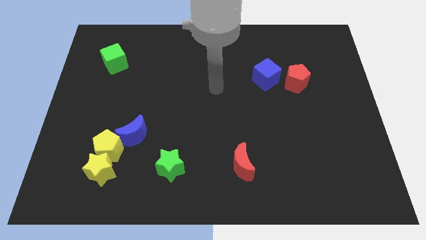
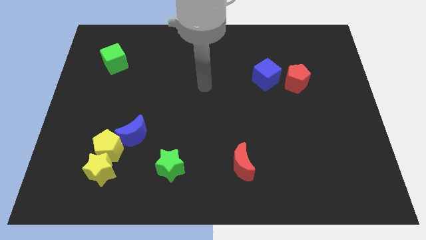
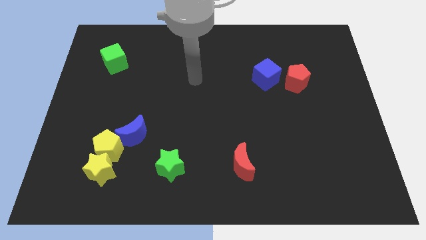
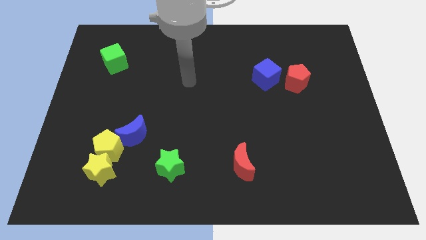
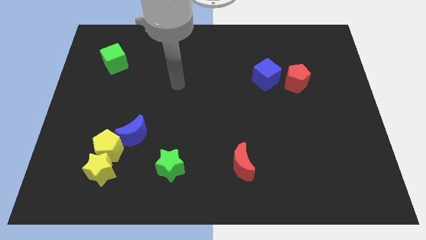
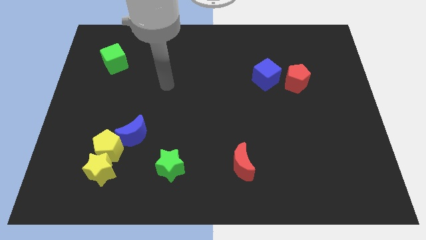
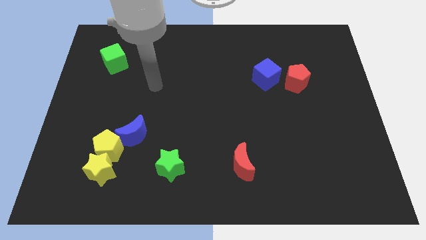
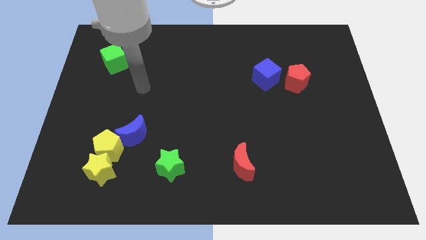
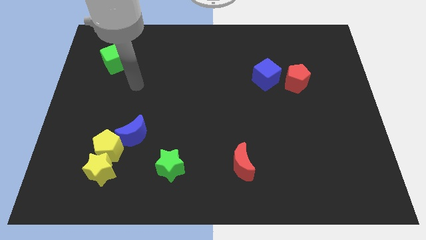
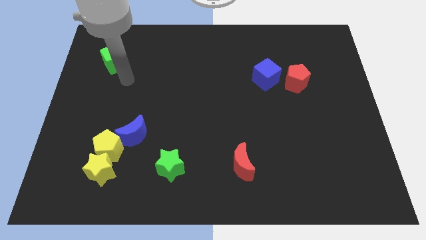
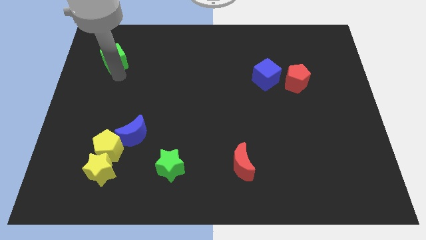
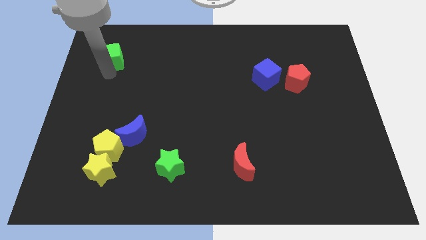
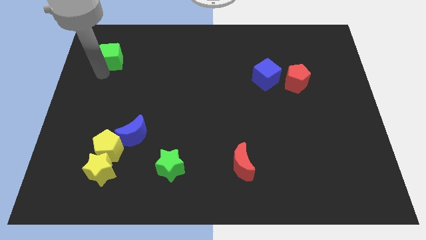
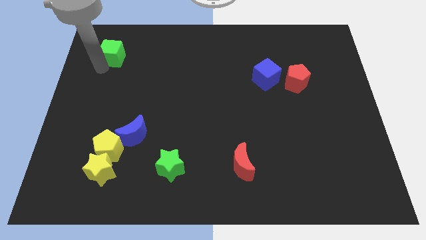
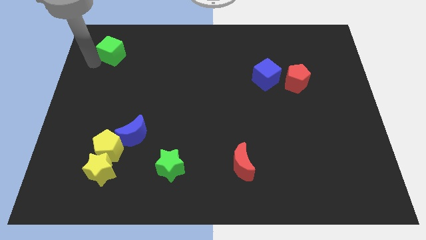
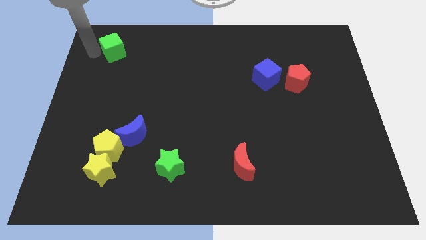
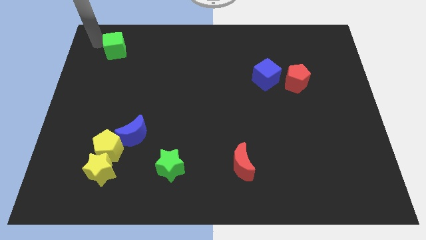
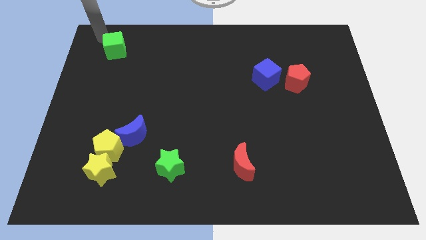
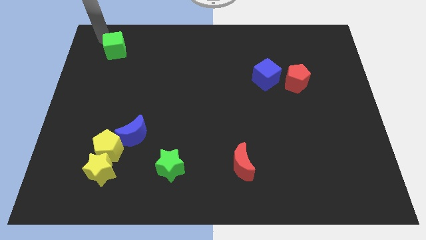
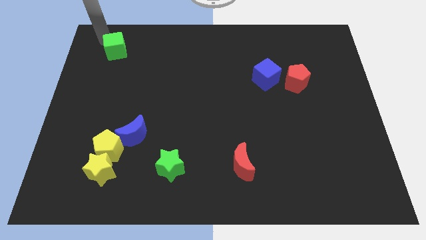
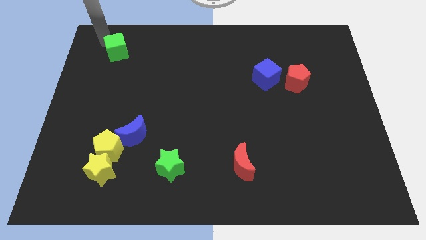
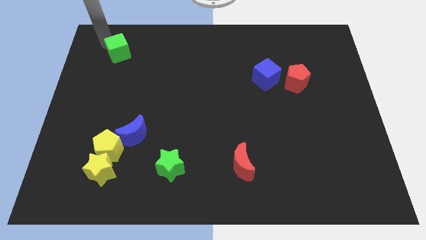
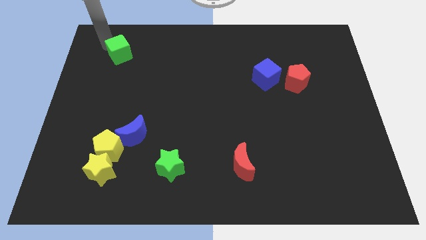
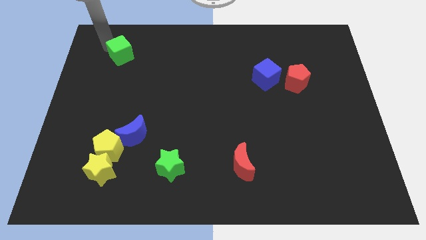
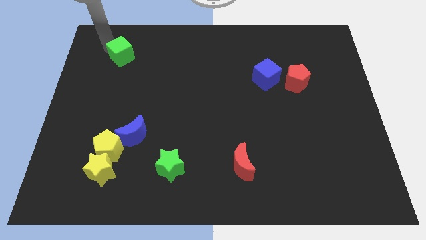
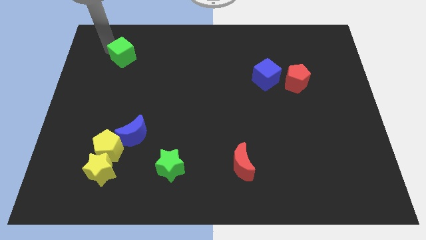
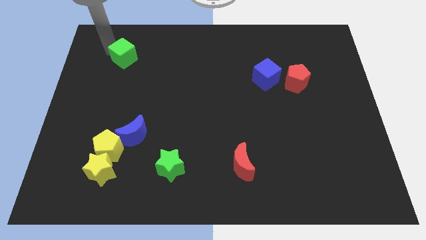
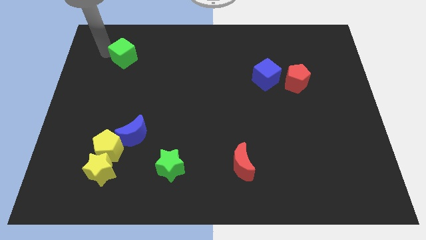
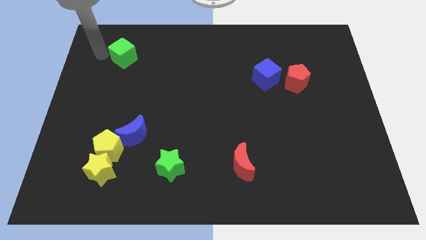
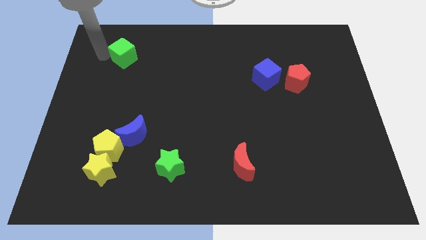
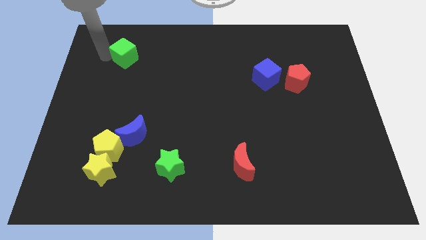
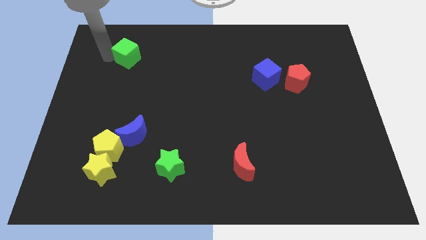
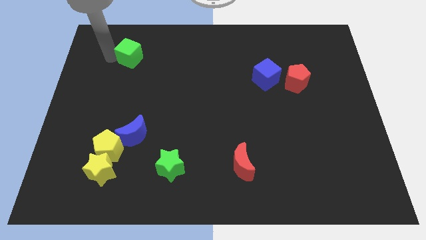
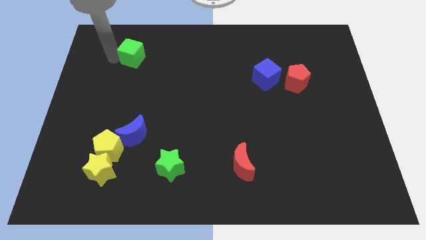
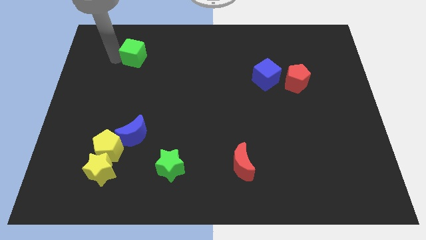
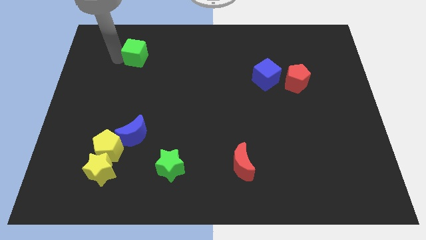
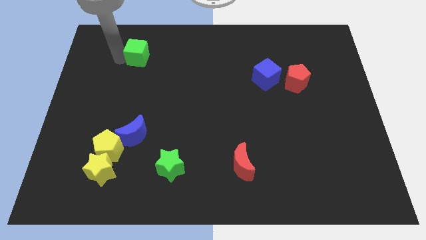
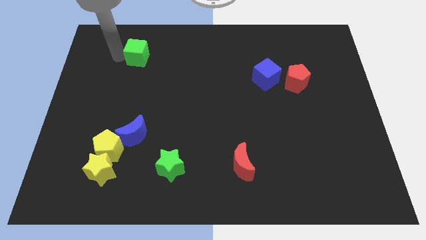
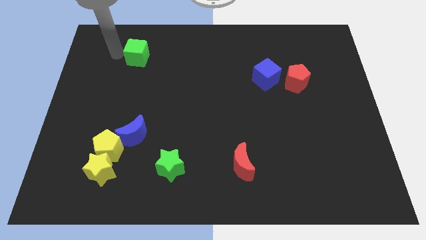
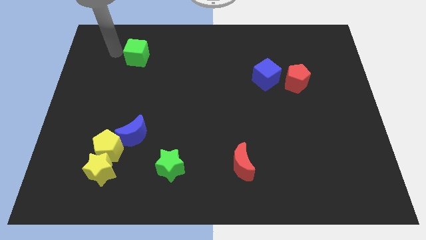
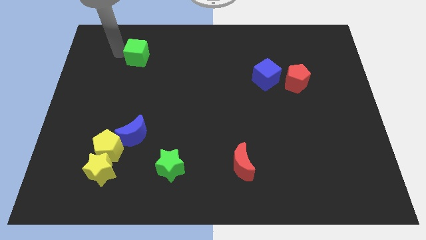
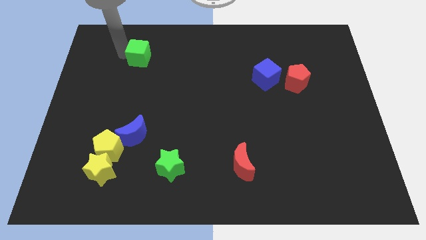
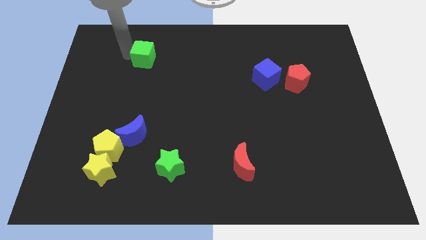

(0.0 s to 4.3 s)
push the green cube slightly right

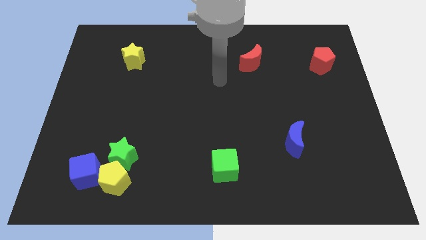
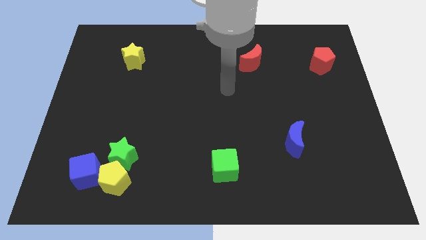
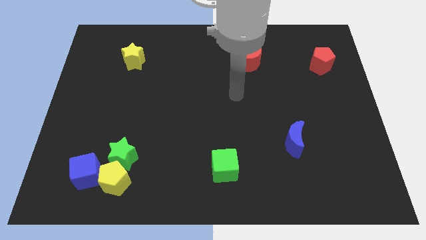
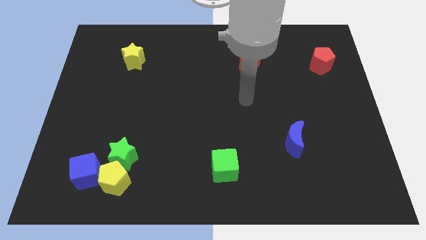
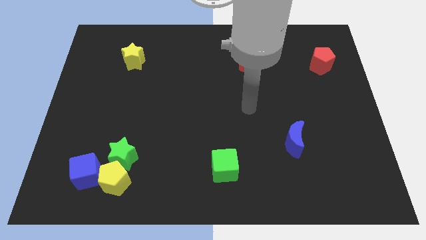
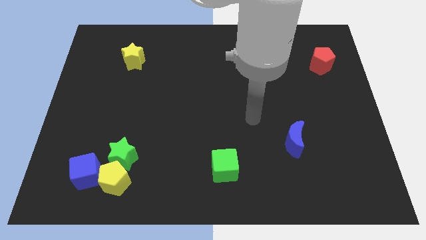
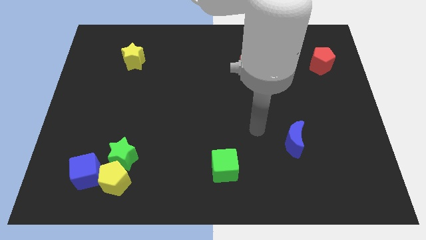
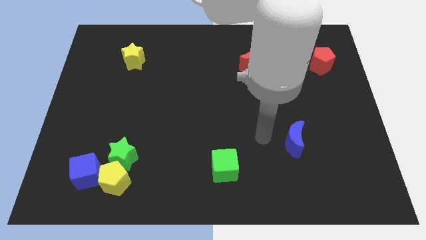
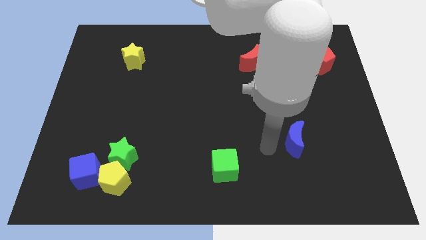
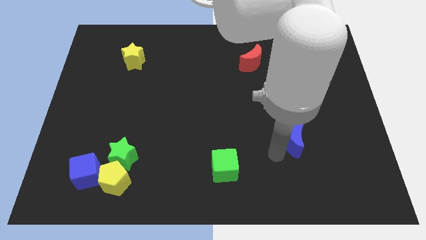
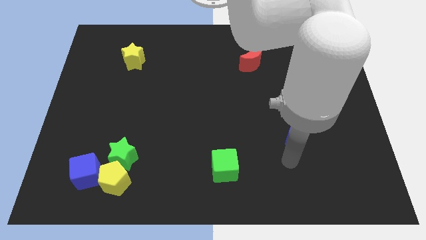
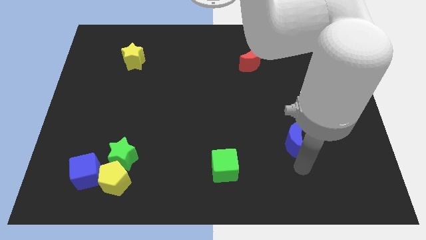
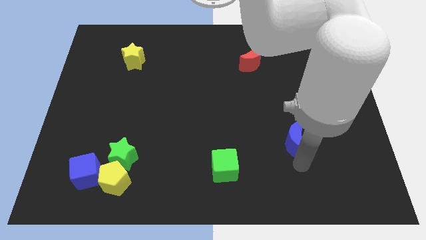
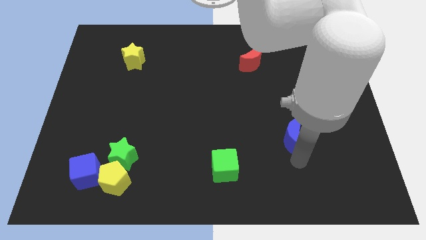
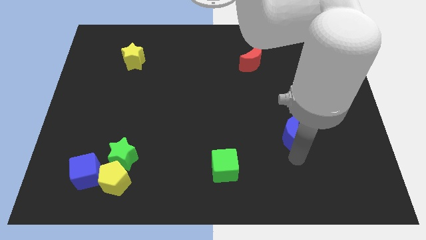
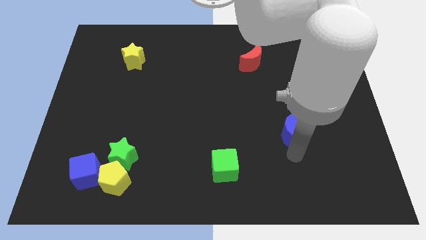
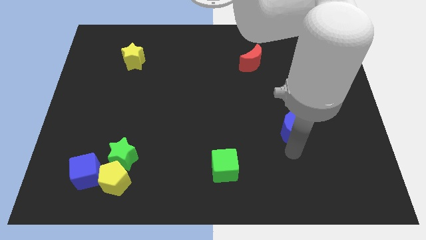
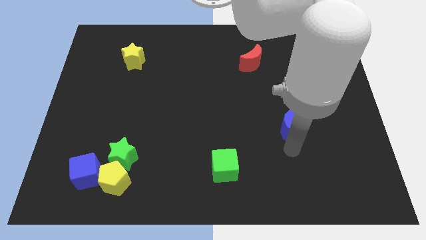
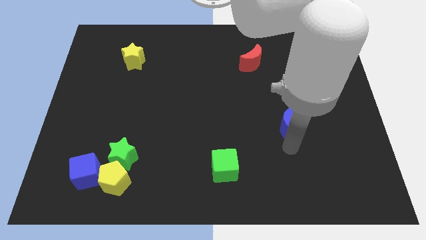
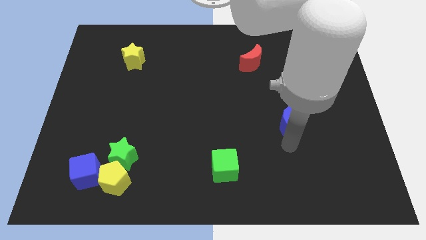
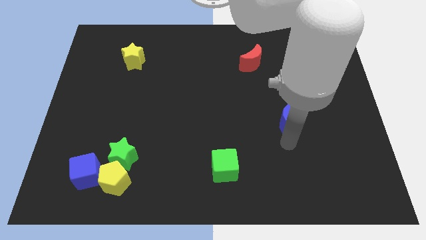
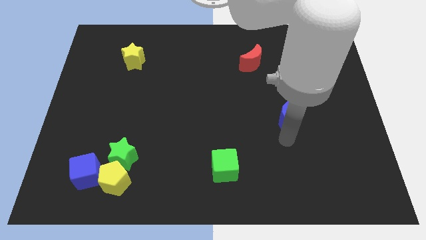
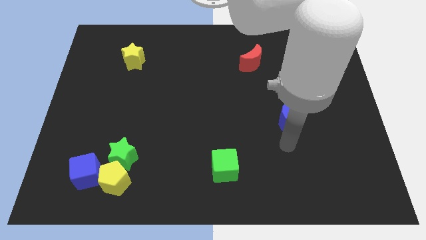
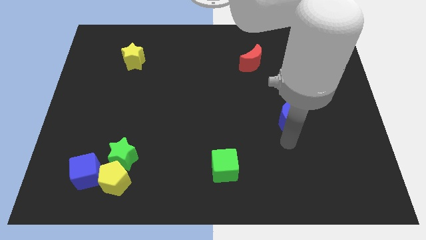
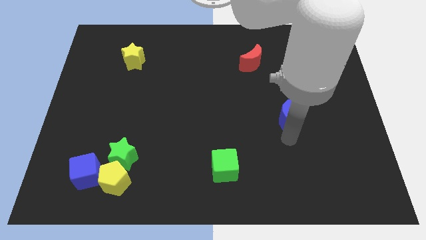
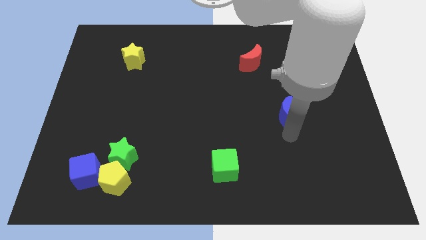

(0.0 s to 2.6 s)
slightly move the blue moon up

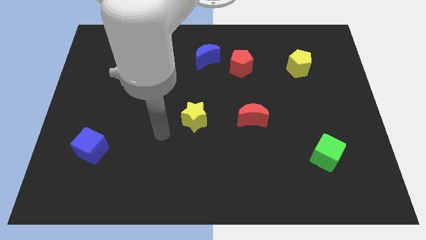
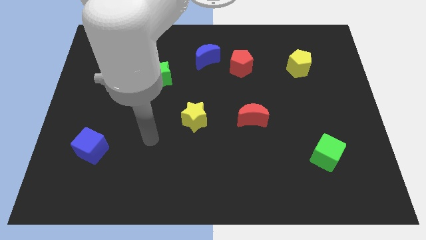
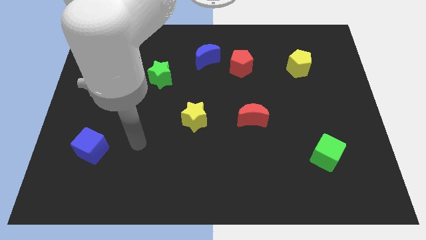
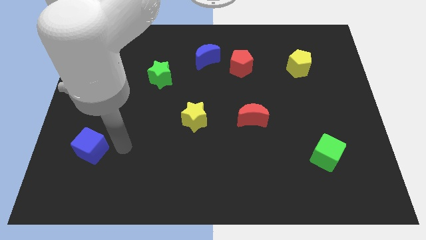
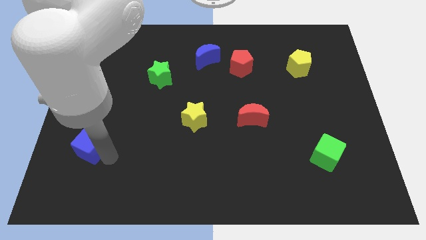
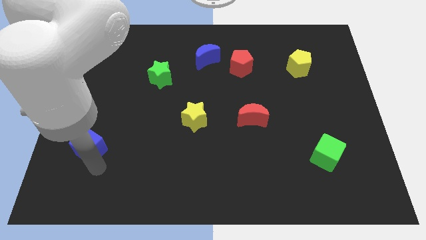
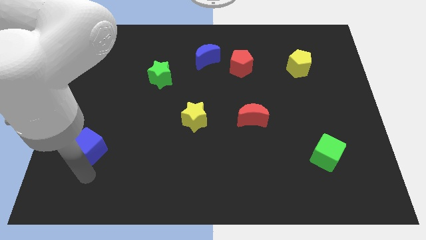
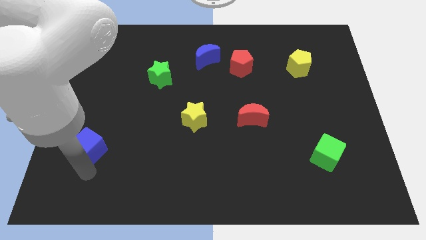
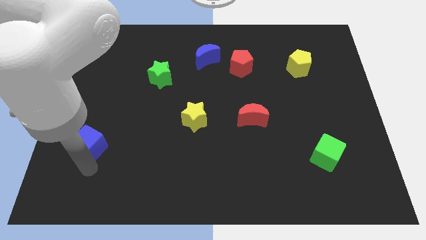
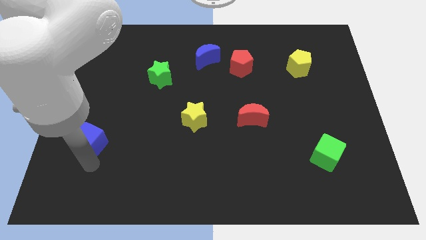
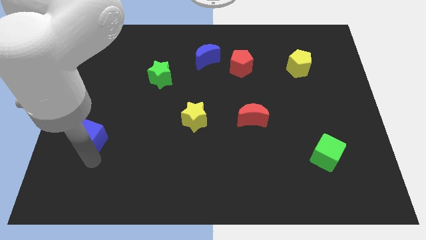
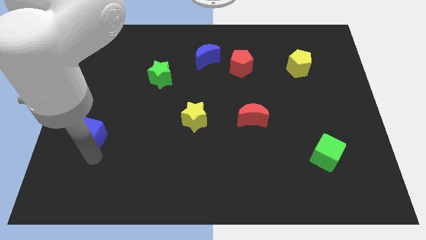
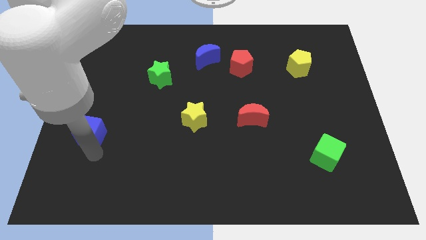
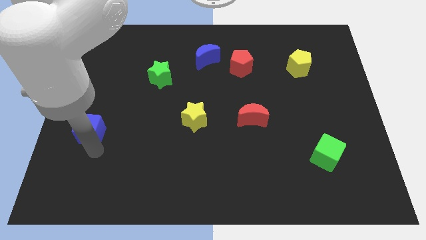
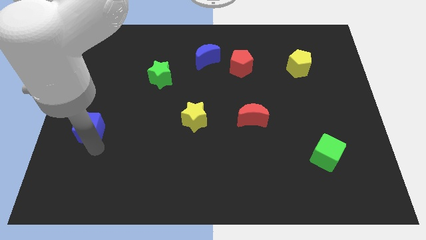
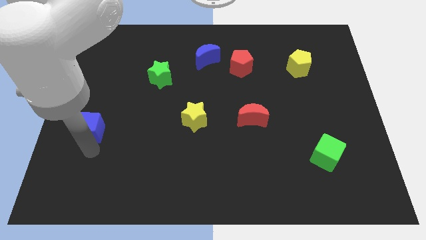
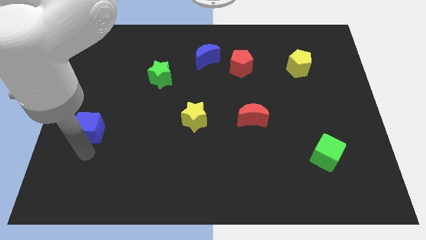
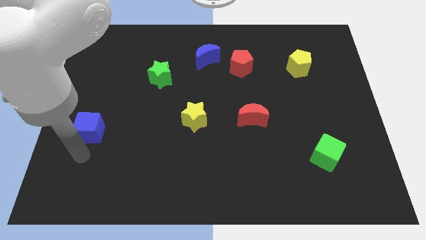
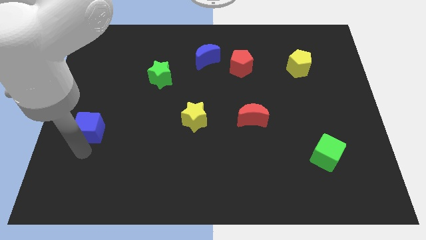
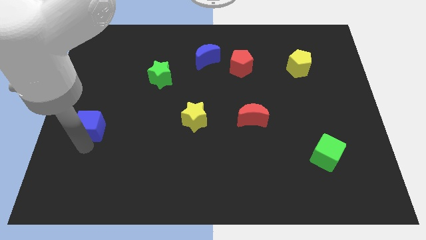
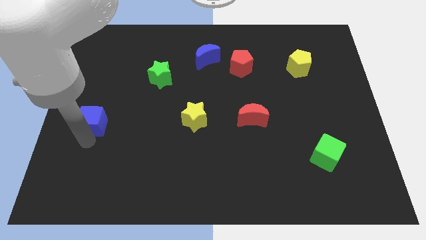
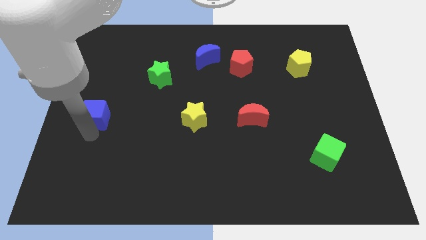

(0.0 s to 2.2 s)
slightly move the blue cube upwards
